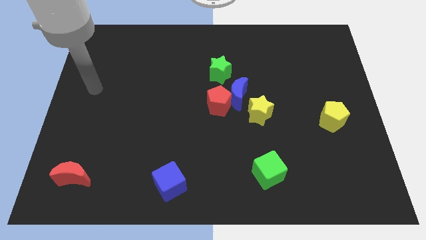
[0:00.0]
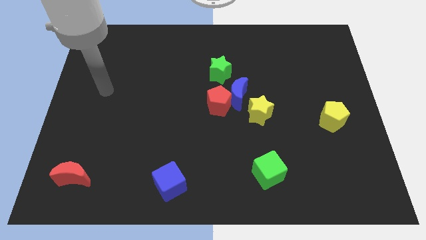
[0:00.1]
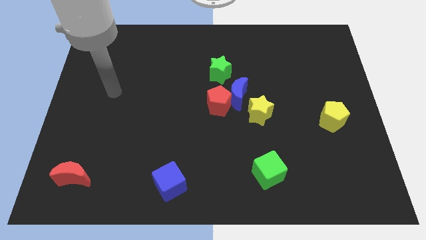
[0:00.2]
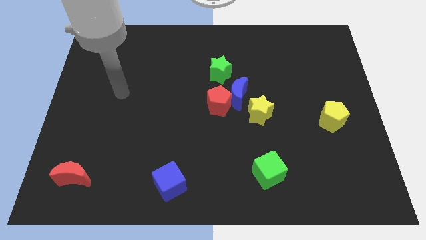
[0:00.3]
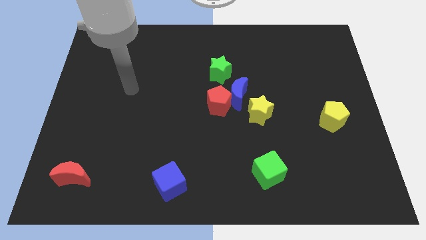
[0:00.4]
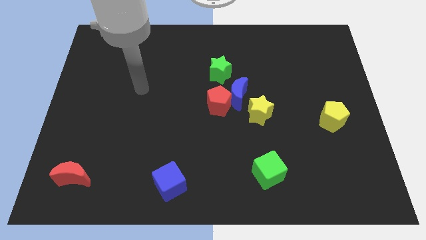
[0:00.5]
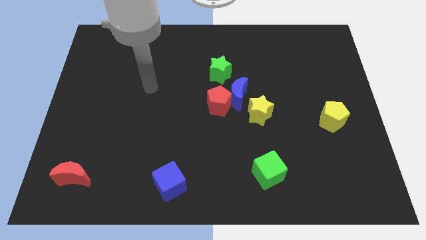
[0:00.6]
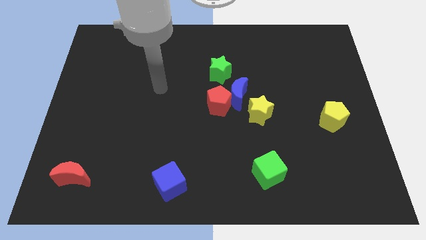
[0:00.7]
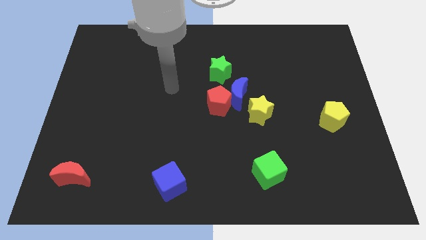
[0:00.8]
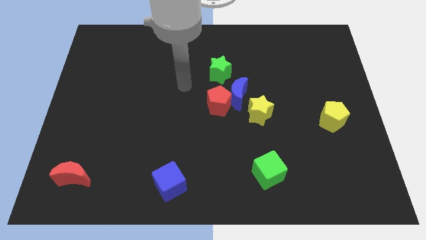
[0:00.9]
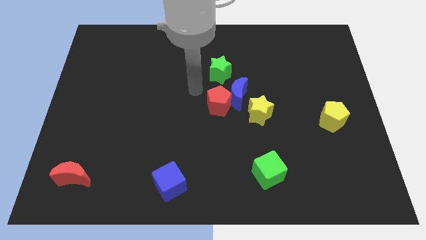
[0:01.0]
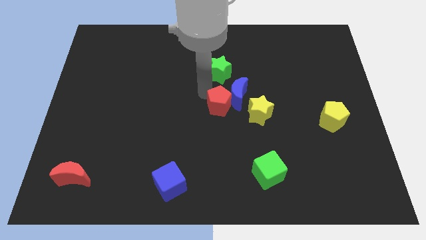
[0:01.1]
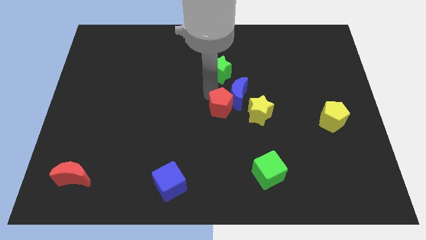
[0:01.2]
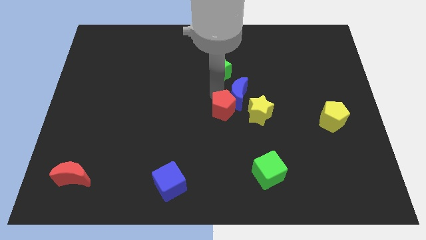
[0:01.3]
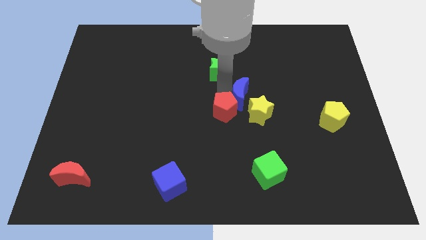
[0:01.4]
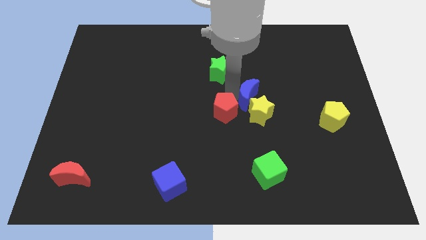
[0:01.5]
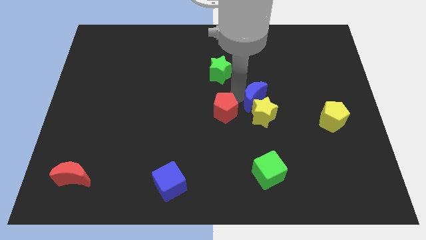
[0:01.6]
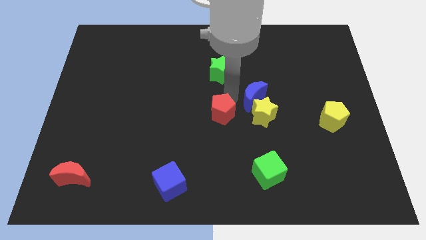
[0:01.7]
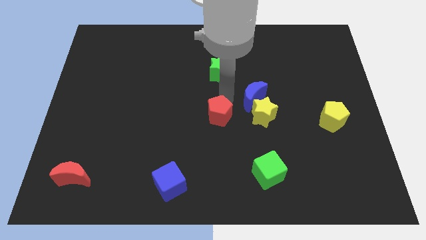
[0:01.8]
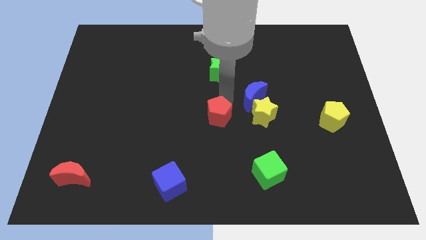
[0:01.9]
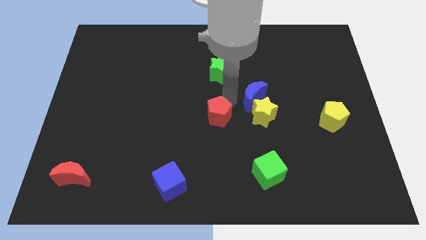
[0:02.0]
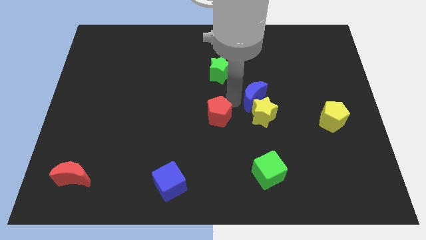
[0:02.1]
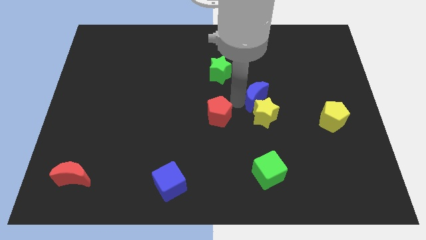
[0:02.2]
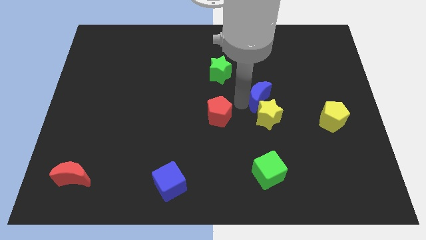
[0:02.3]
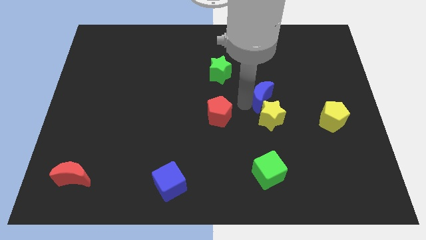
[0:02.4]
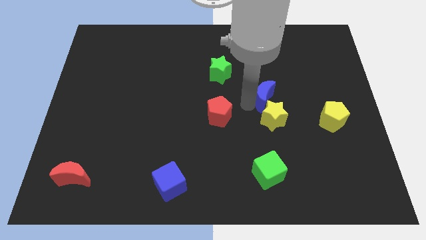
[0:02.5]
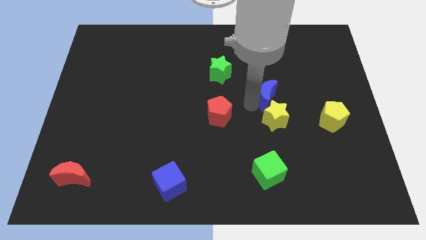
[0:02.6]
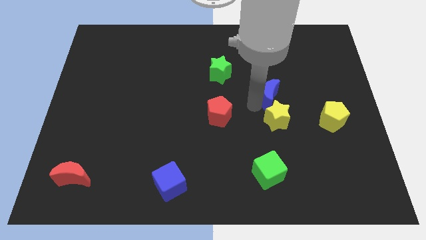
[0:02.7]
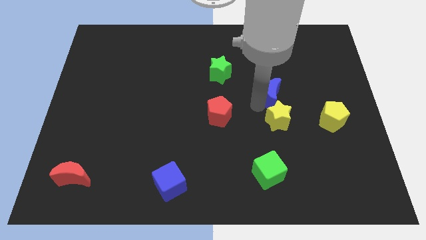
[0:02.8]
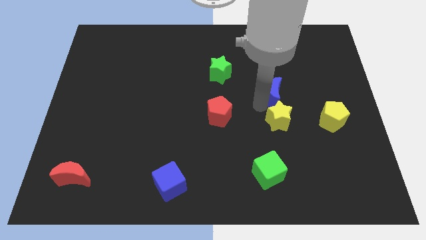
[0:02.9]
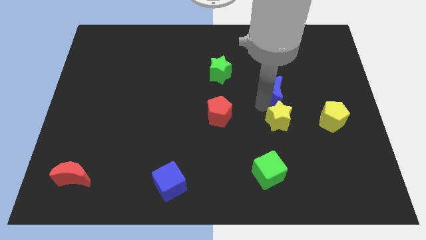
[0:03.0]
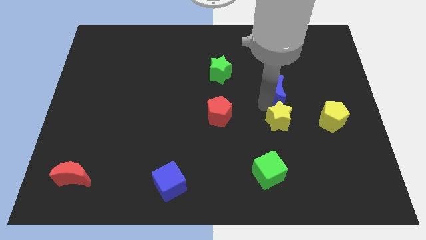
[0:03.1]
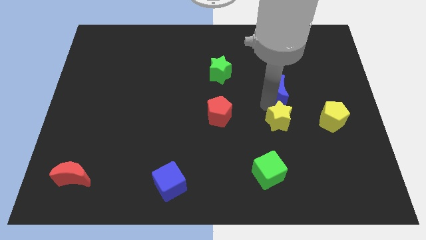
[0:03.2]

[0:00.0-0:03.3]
pull the blue moon apart from the red pentagon, yellow star, and green star

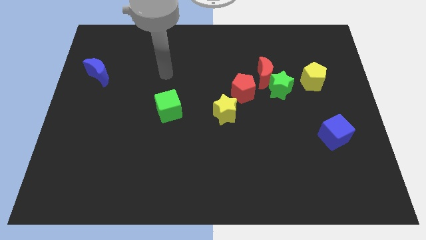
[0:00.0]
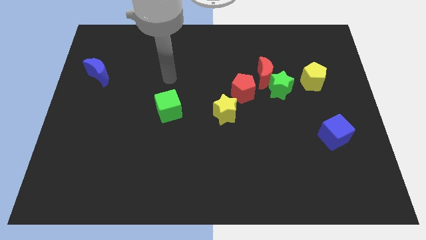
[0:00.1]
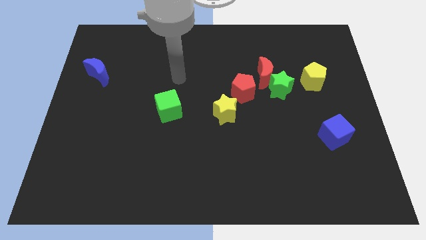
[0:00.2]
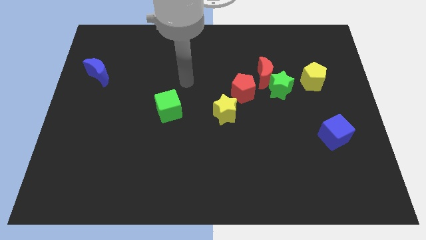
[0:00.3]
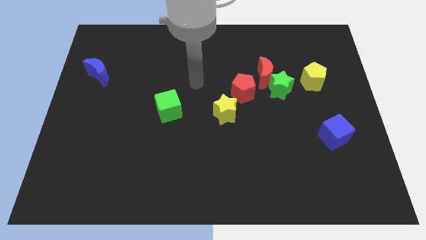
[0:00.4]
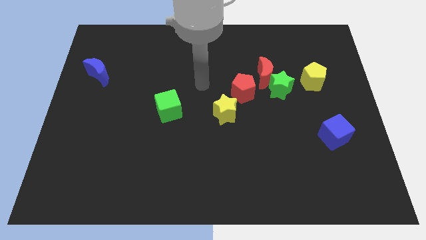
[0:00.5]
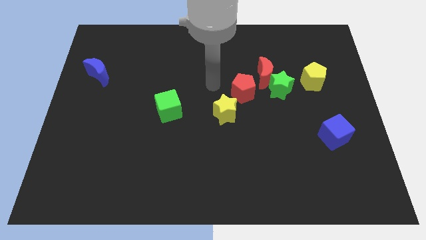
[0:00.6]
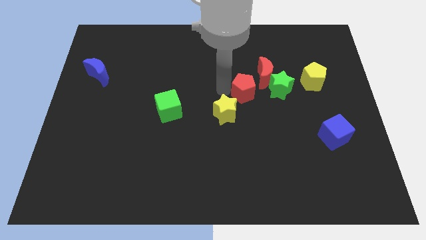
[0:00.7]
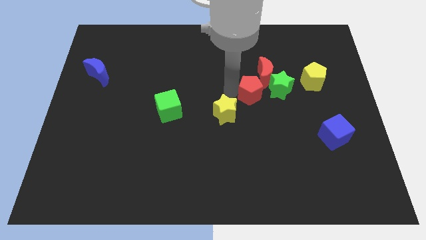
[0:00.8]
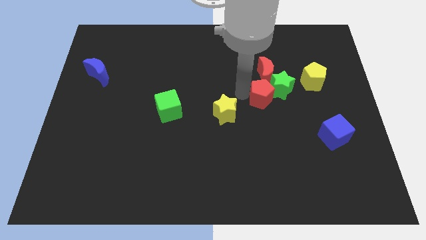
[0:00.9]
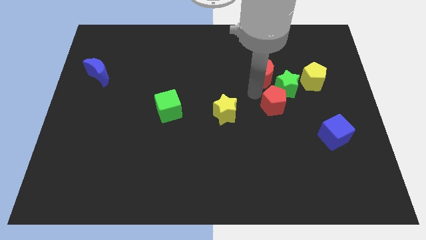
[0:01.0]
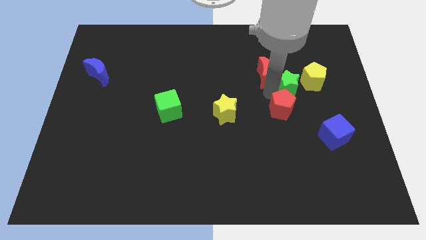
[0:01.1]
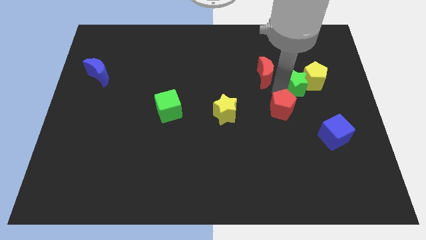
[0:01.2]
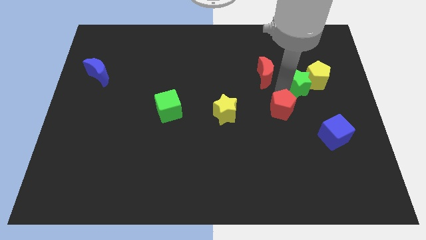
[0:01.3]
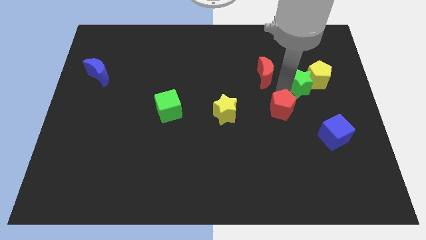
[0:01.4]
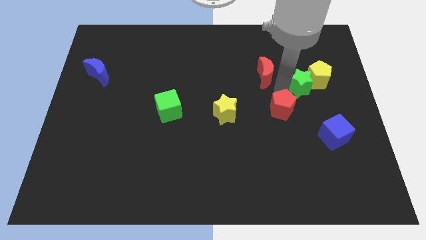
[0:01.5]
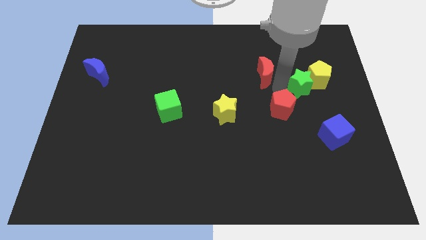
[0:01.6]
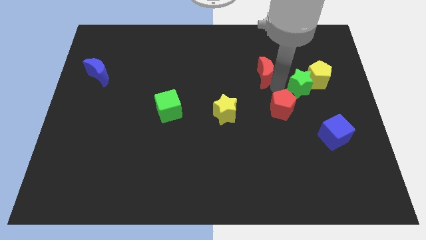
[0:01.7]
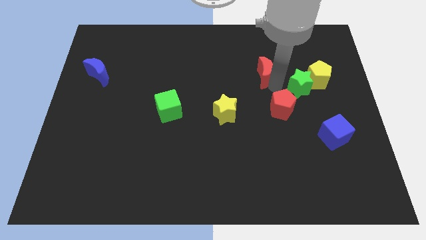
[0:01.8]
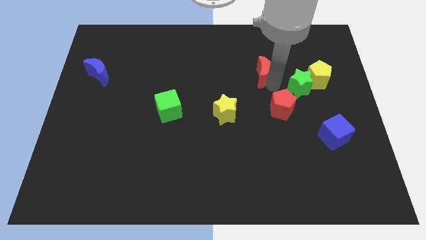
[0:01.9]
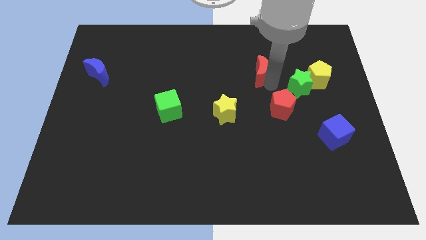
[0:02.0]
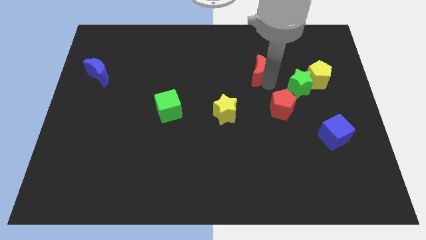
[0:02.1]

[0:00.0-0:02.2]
separate the red moon from the green star and red pentagon

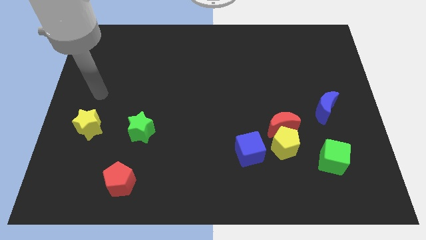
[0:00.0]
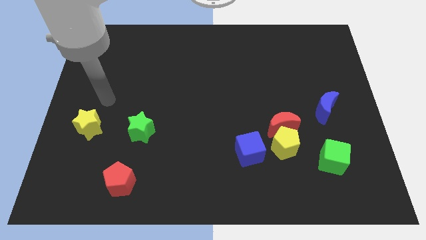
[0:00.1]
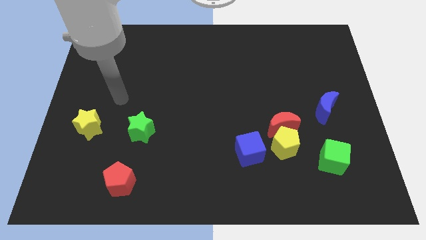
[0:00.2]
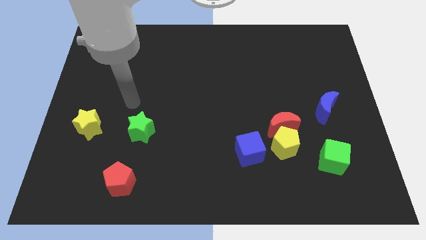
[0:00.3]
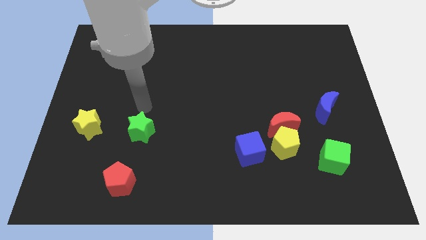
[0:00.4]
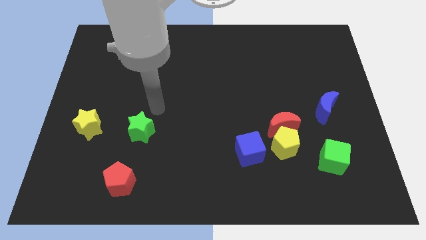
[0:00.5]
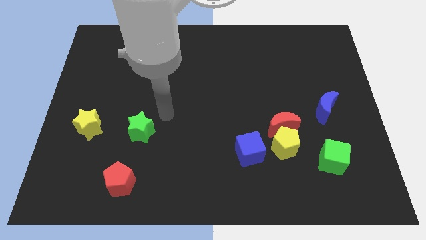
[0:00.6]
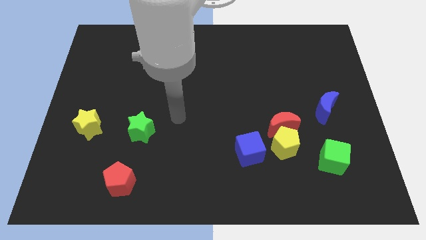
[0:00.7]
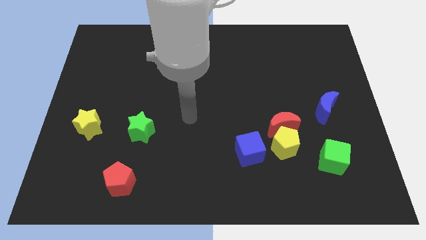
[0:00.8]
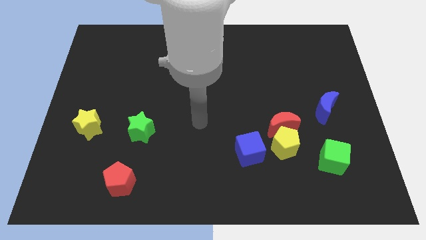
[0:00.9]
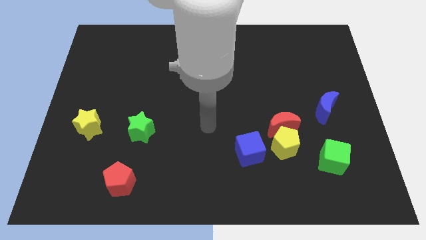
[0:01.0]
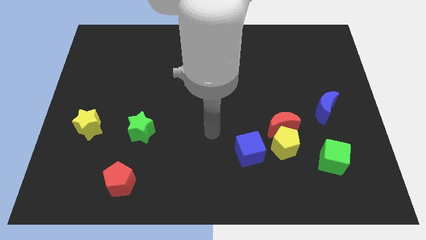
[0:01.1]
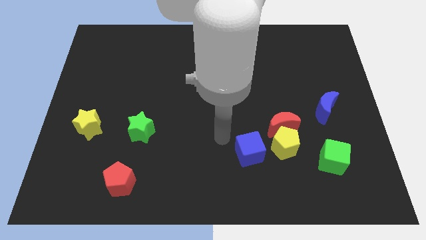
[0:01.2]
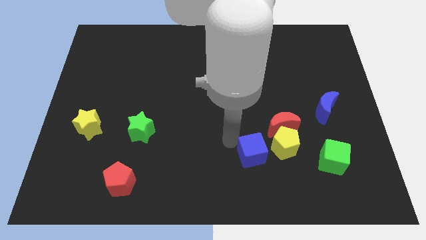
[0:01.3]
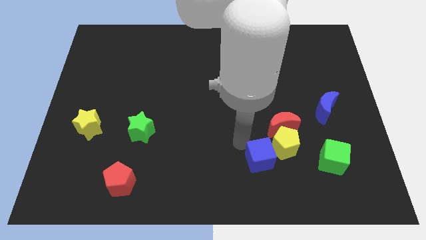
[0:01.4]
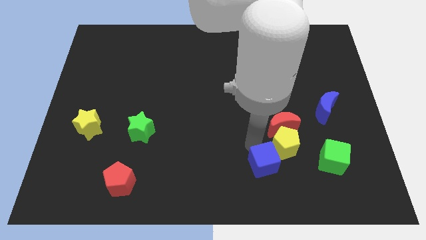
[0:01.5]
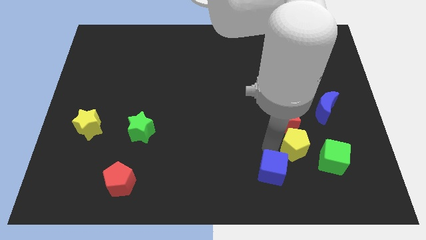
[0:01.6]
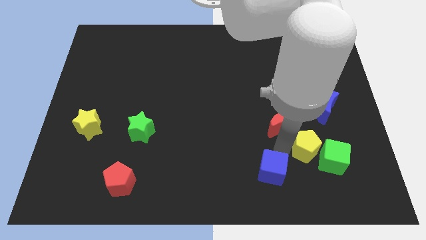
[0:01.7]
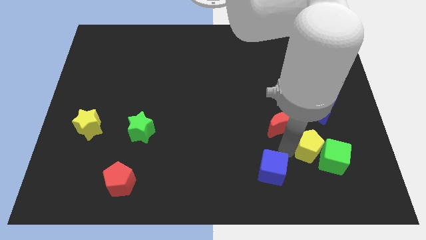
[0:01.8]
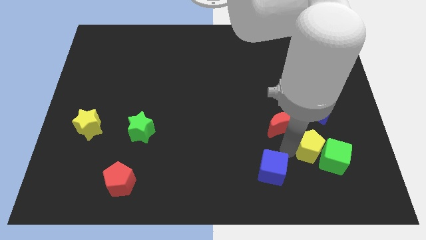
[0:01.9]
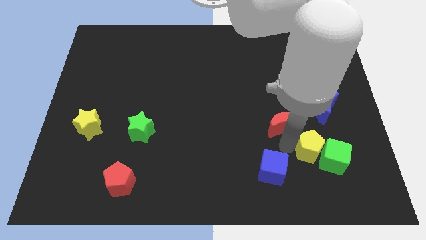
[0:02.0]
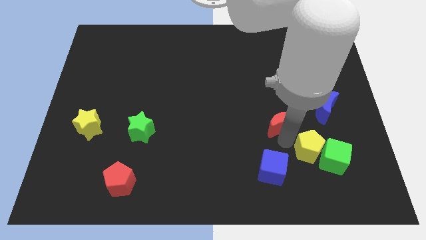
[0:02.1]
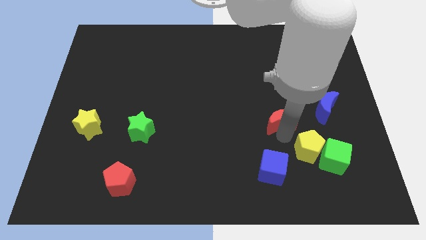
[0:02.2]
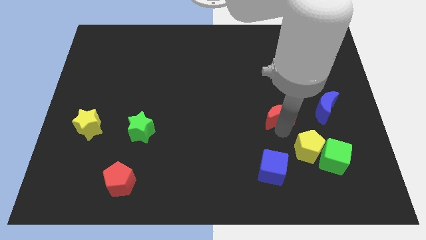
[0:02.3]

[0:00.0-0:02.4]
pull the red moon apart from the yellow pentagon and blue cube

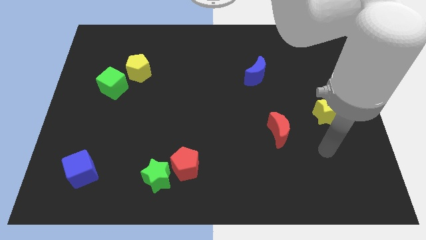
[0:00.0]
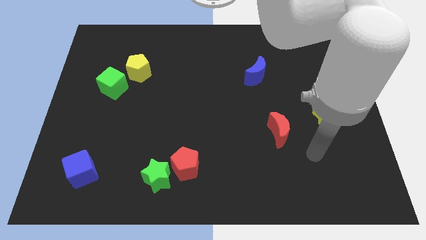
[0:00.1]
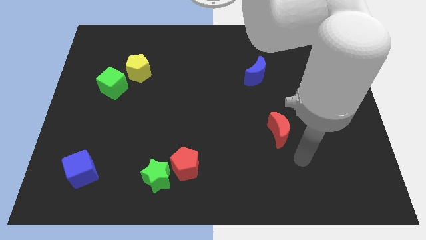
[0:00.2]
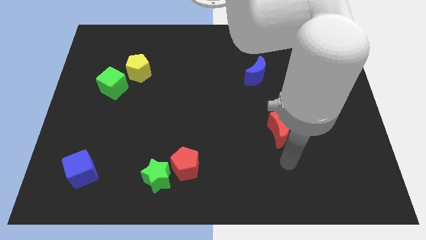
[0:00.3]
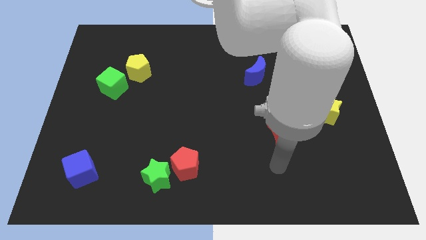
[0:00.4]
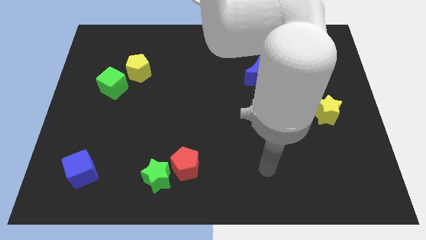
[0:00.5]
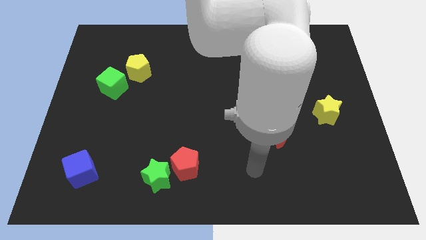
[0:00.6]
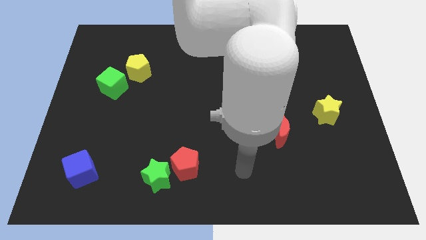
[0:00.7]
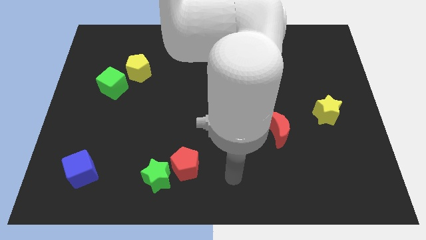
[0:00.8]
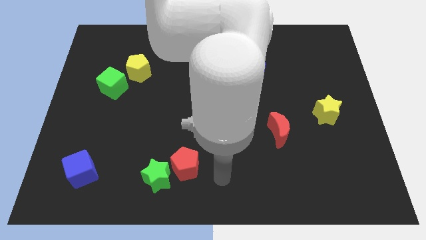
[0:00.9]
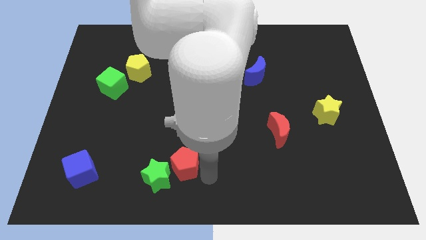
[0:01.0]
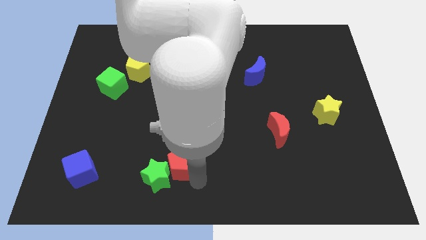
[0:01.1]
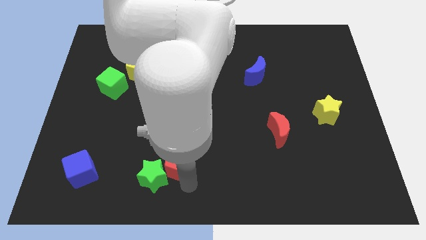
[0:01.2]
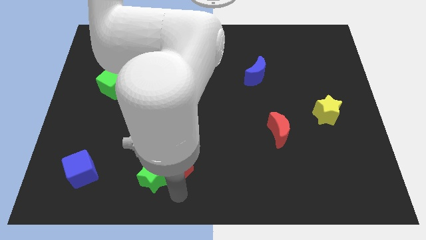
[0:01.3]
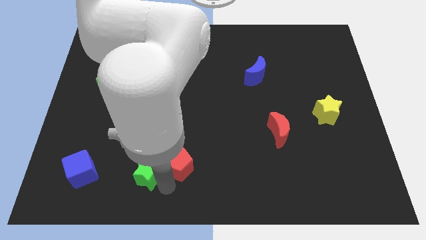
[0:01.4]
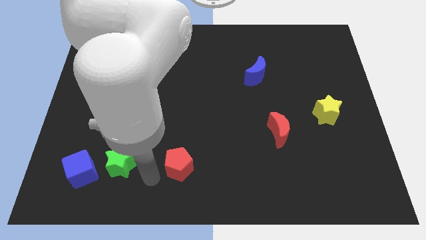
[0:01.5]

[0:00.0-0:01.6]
pull the red pentagon apart from the green star
